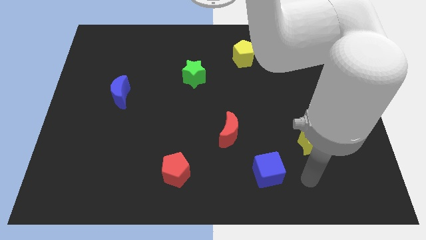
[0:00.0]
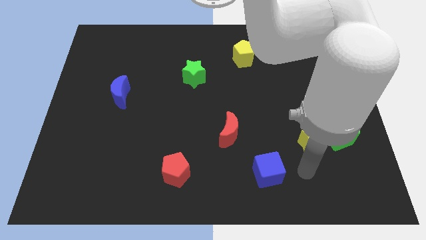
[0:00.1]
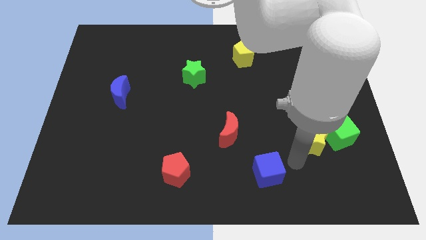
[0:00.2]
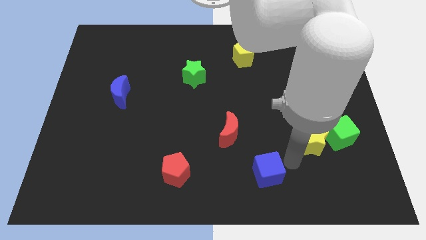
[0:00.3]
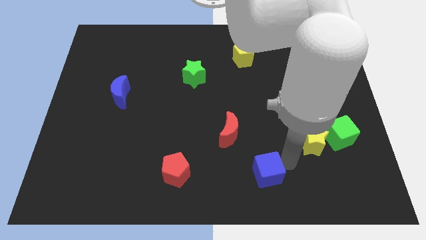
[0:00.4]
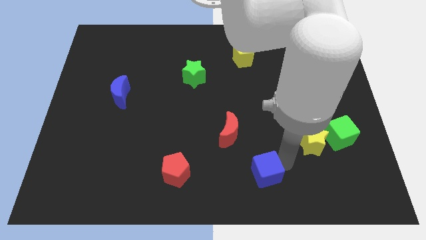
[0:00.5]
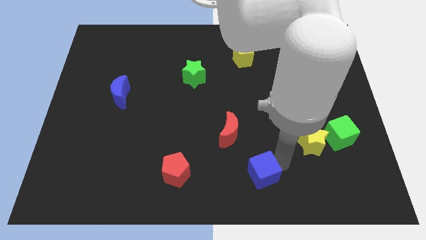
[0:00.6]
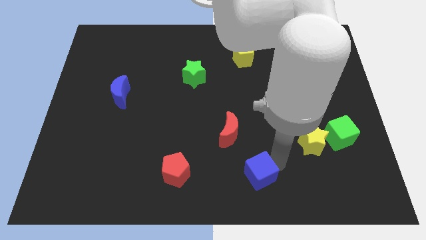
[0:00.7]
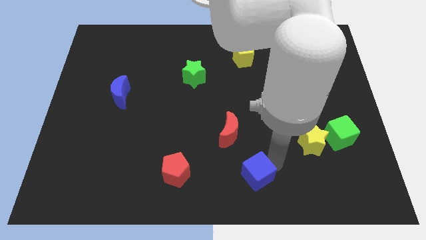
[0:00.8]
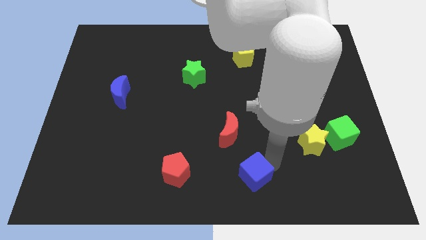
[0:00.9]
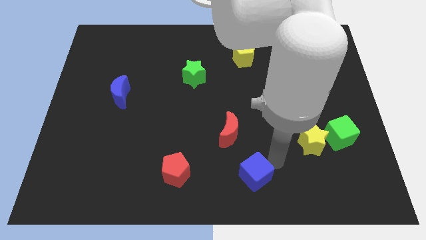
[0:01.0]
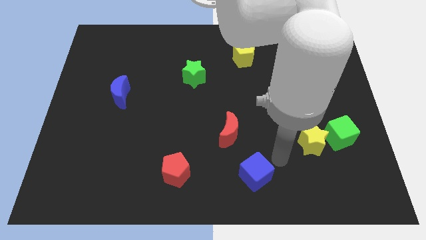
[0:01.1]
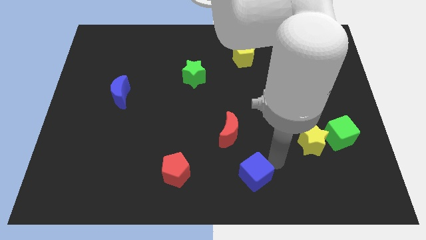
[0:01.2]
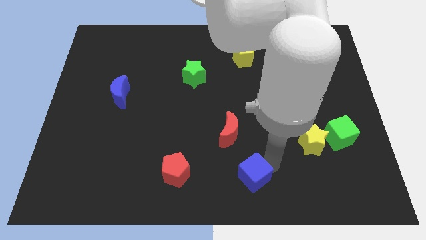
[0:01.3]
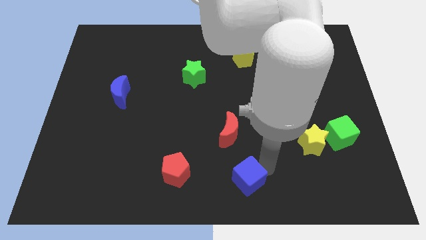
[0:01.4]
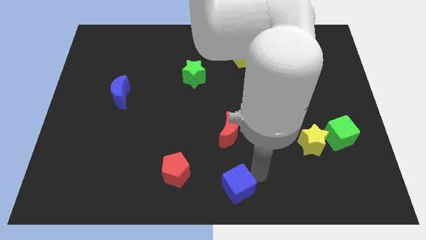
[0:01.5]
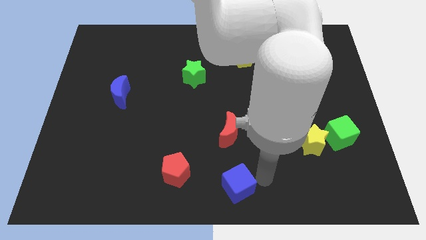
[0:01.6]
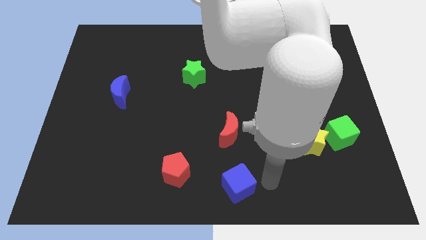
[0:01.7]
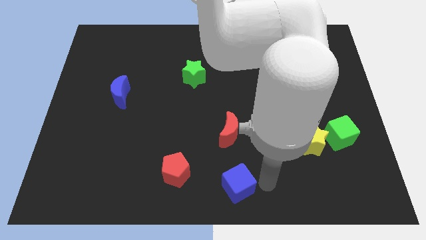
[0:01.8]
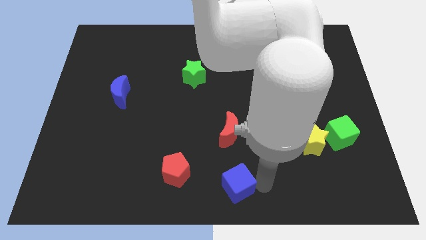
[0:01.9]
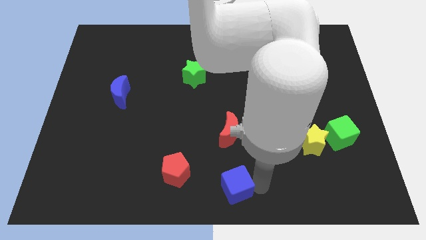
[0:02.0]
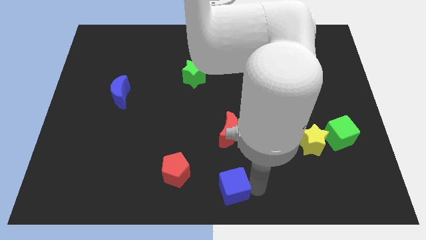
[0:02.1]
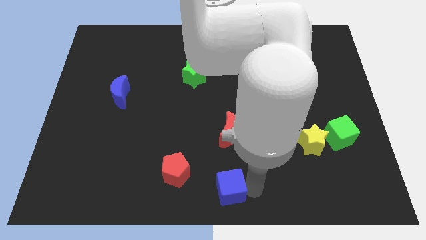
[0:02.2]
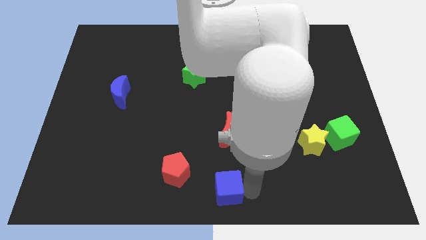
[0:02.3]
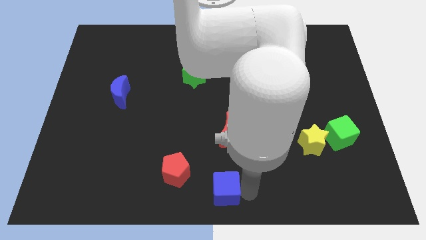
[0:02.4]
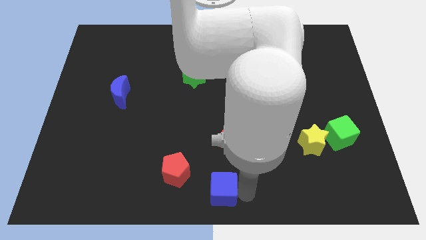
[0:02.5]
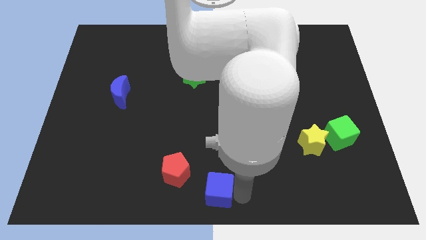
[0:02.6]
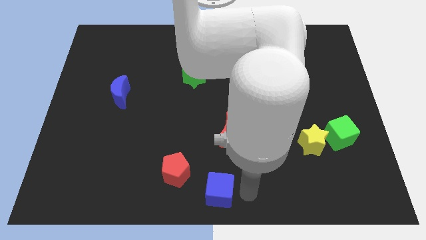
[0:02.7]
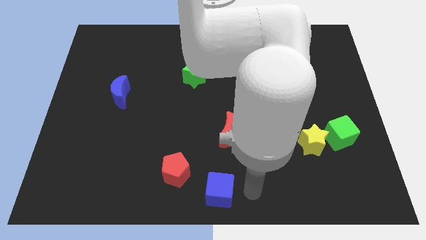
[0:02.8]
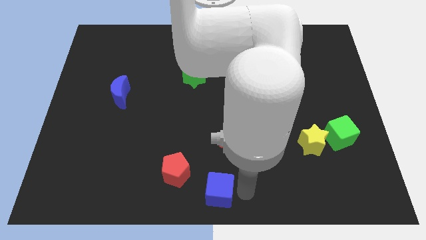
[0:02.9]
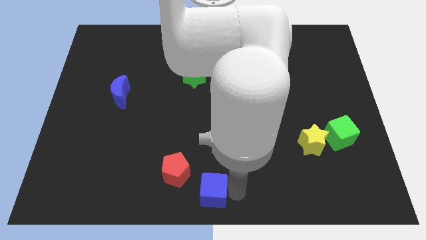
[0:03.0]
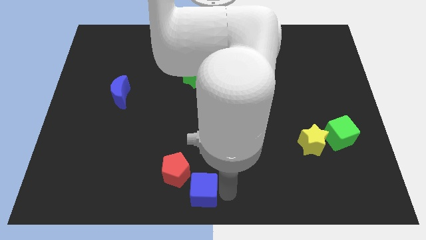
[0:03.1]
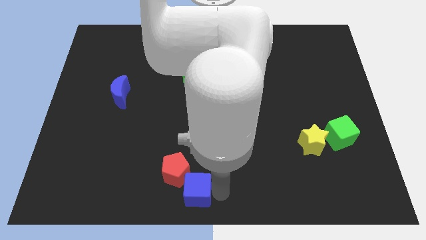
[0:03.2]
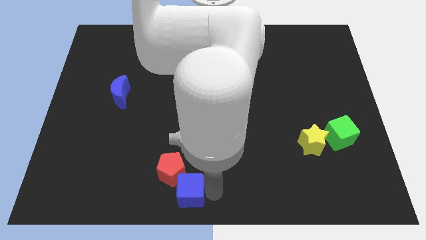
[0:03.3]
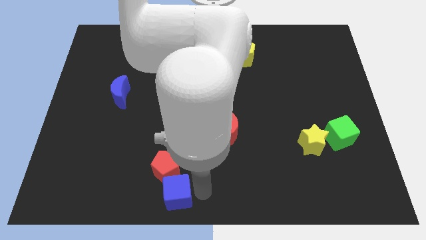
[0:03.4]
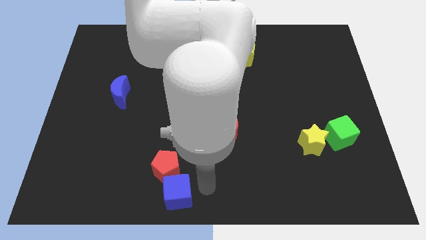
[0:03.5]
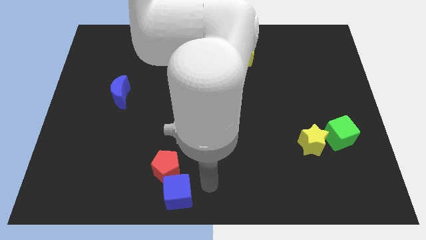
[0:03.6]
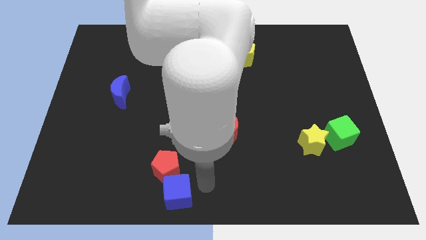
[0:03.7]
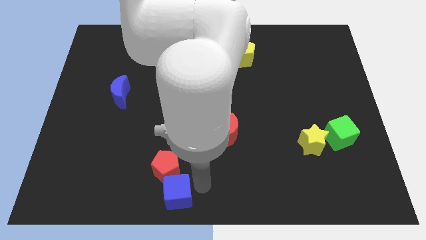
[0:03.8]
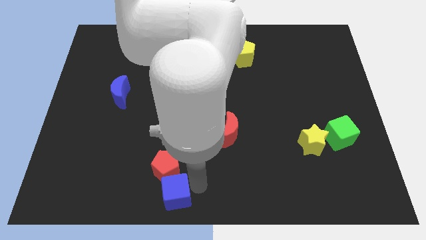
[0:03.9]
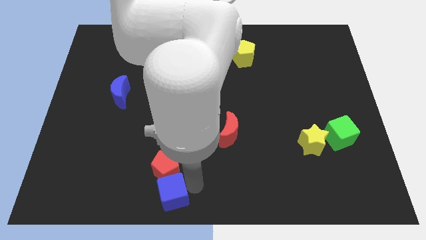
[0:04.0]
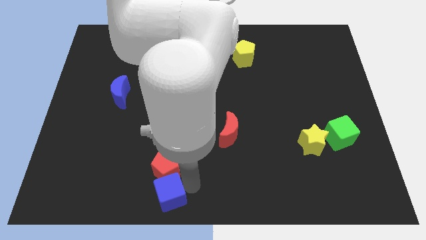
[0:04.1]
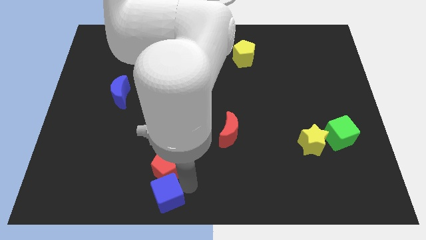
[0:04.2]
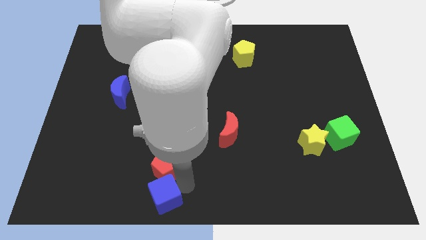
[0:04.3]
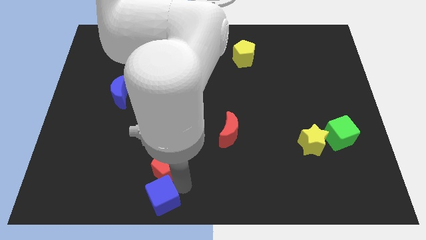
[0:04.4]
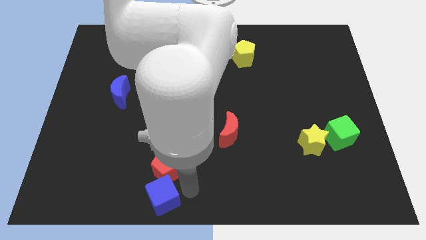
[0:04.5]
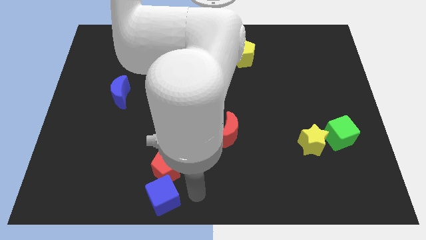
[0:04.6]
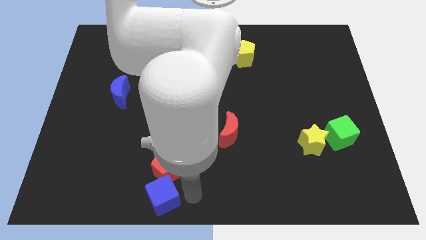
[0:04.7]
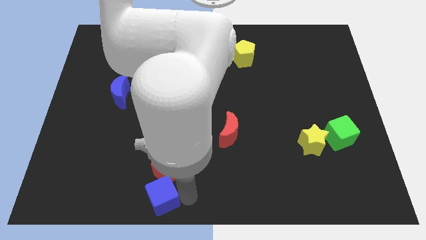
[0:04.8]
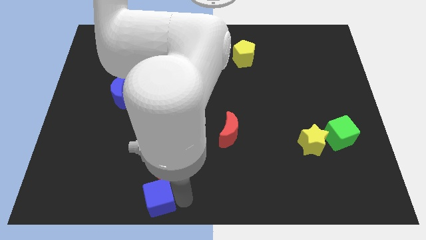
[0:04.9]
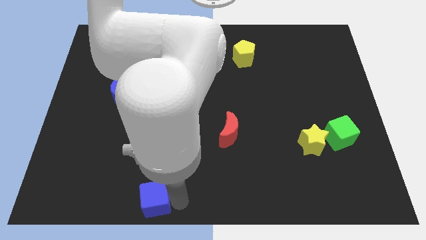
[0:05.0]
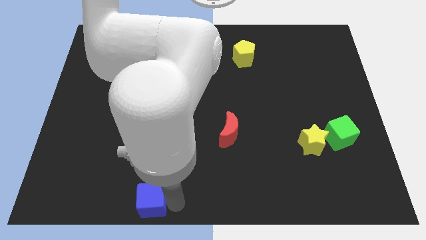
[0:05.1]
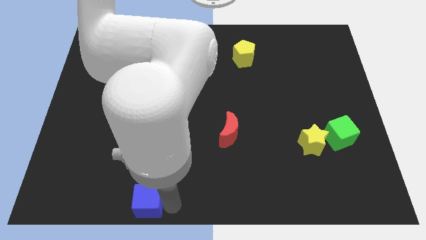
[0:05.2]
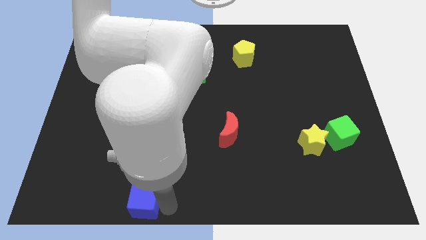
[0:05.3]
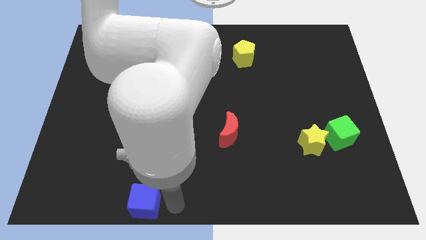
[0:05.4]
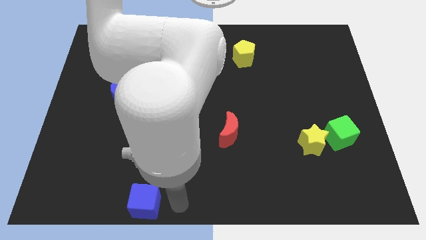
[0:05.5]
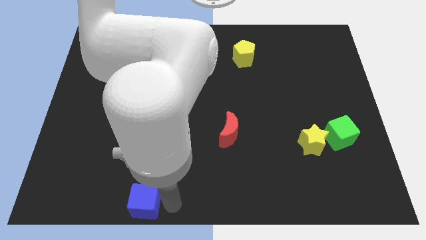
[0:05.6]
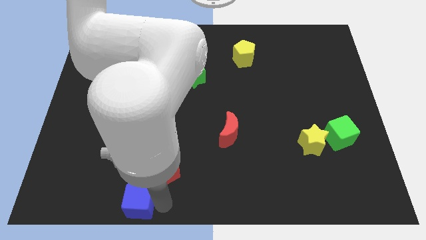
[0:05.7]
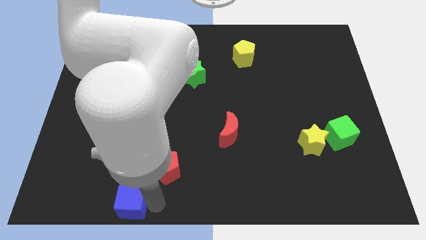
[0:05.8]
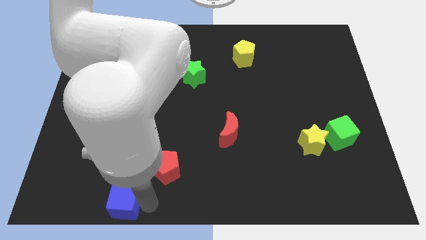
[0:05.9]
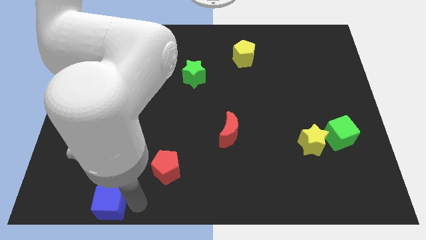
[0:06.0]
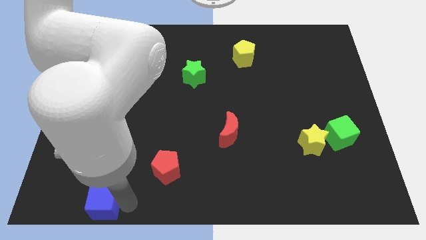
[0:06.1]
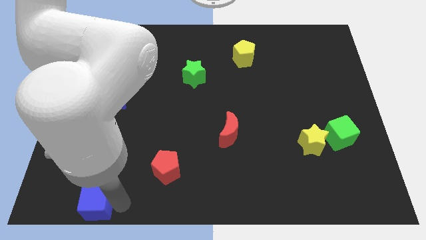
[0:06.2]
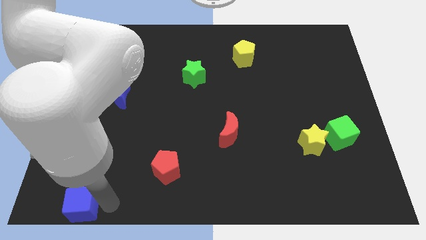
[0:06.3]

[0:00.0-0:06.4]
put the blue cube to the bottom left corner

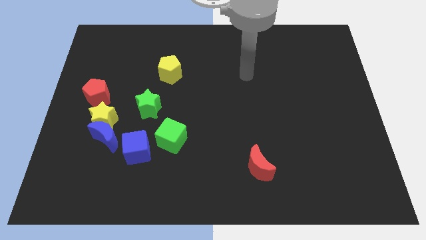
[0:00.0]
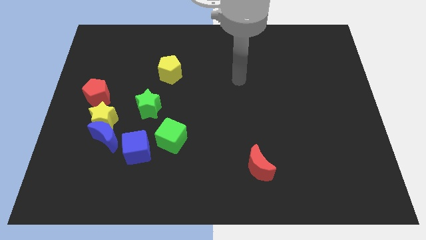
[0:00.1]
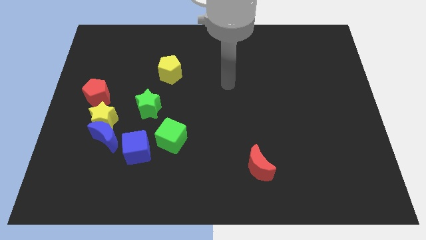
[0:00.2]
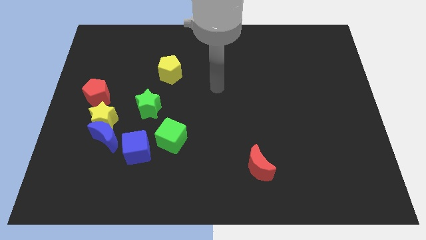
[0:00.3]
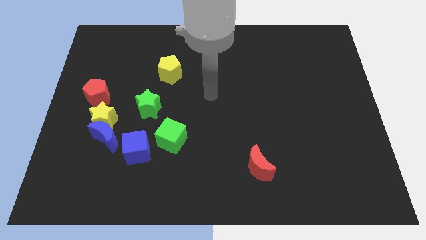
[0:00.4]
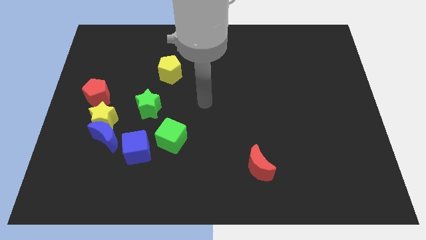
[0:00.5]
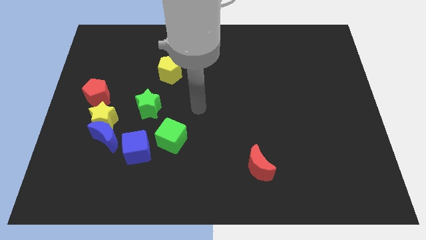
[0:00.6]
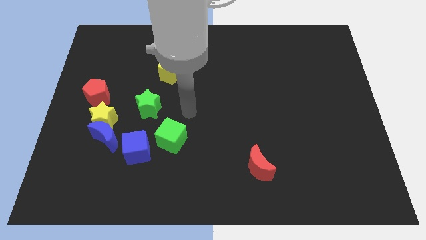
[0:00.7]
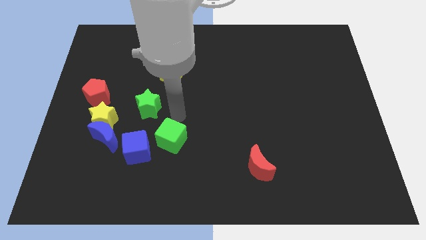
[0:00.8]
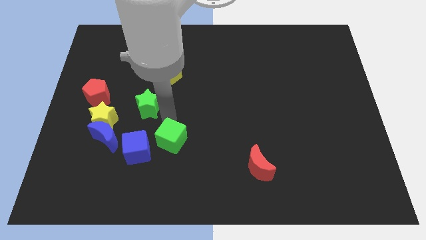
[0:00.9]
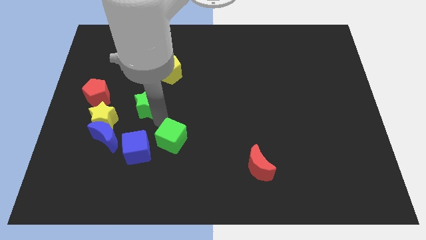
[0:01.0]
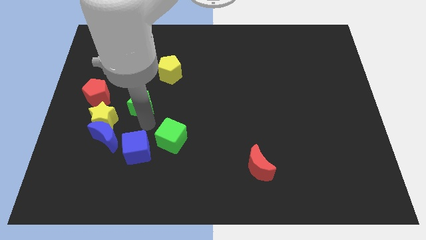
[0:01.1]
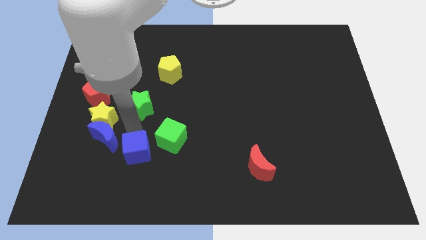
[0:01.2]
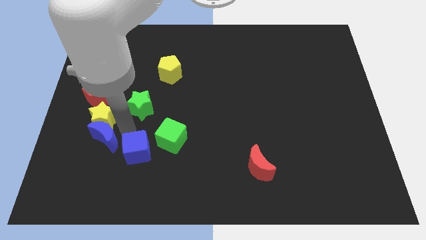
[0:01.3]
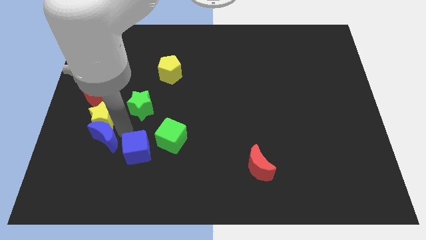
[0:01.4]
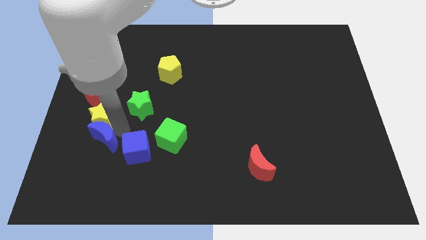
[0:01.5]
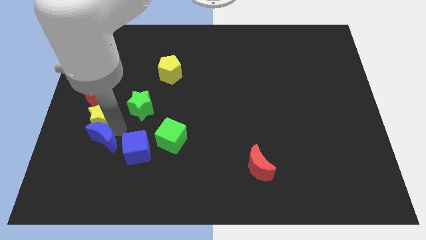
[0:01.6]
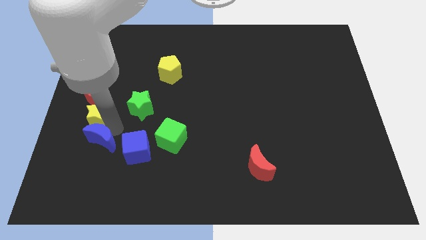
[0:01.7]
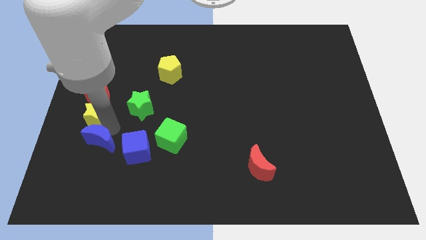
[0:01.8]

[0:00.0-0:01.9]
slide the yellow star to the center left
